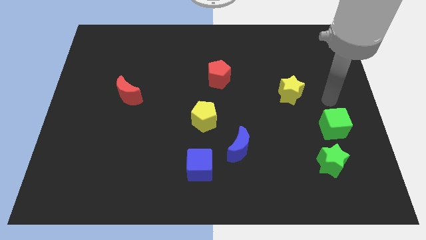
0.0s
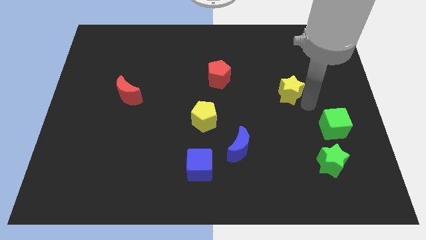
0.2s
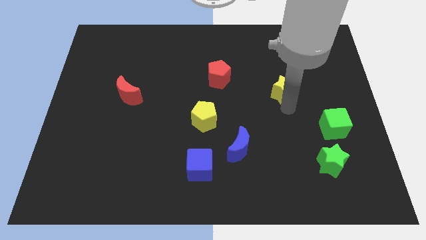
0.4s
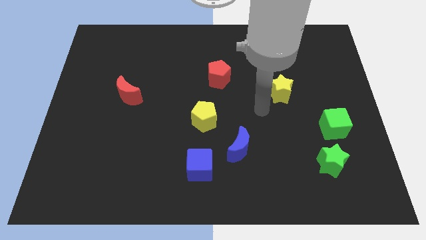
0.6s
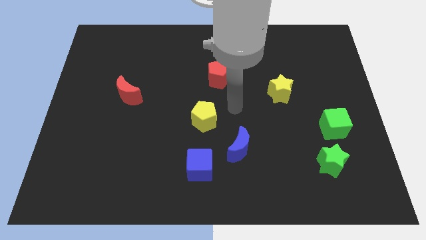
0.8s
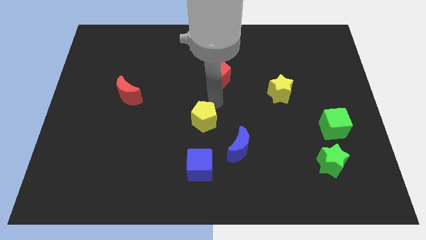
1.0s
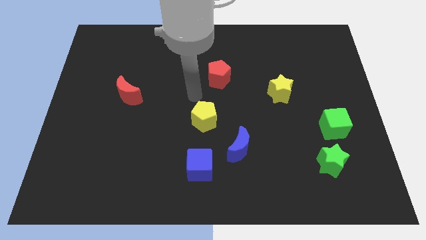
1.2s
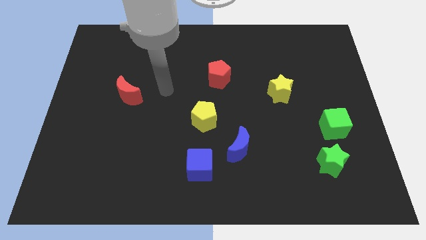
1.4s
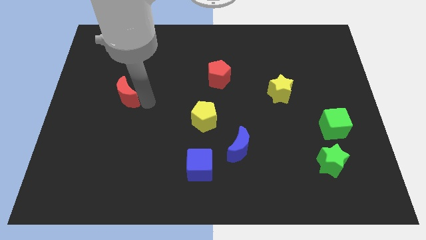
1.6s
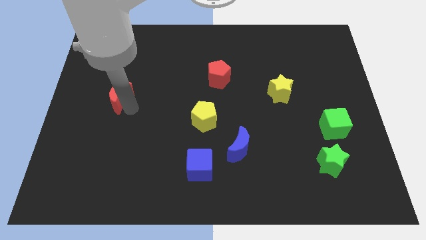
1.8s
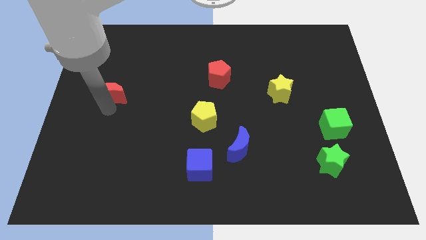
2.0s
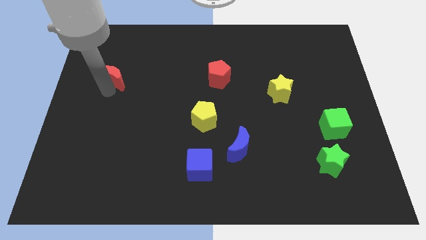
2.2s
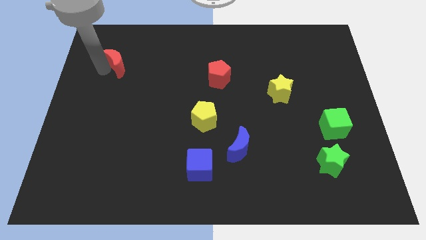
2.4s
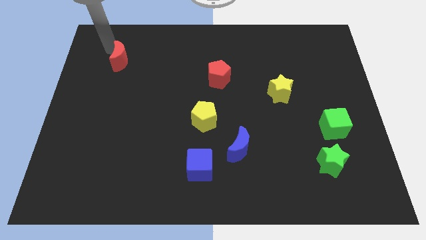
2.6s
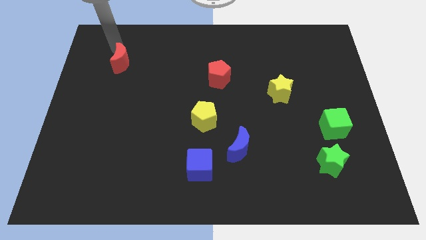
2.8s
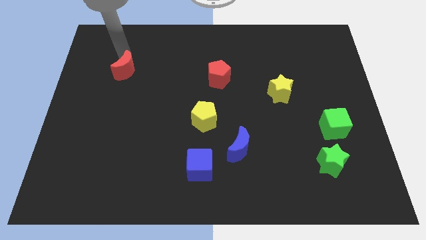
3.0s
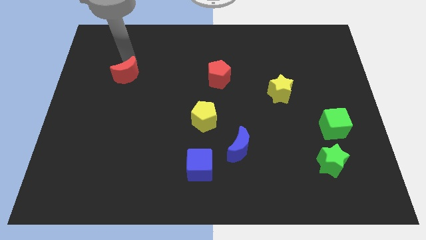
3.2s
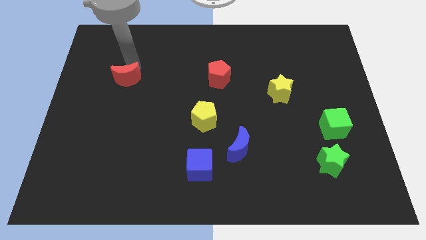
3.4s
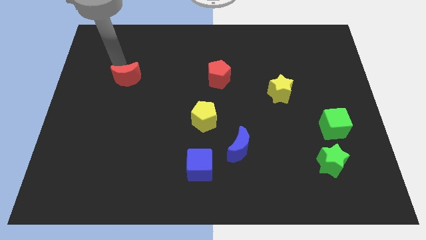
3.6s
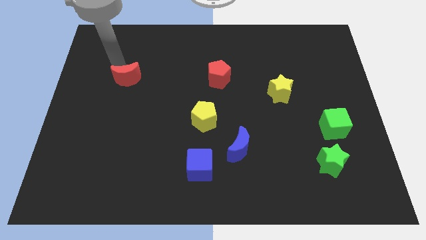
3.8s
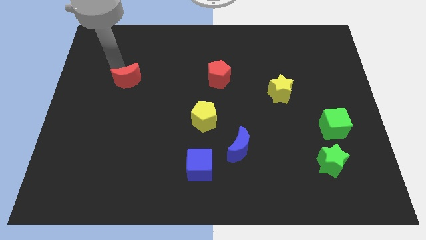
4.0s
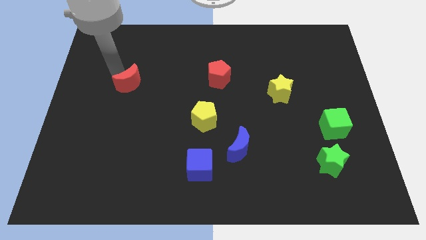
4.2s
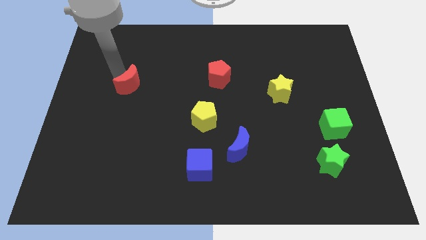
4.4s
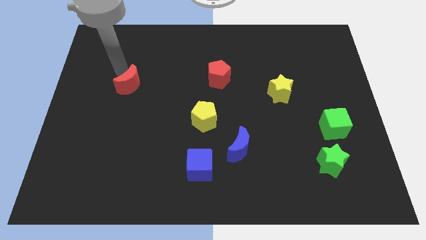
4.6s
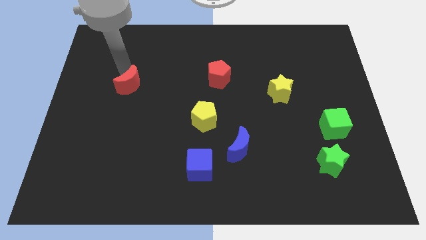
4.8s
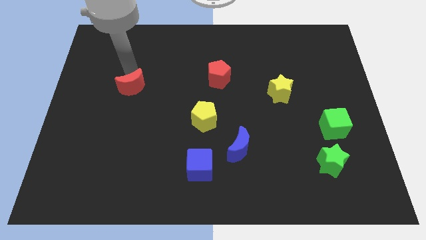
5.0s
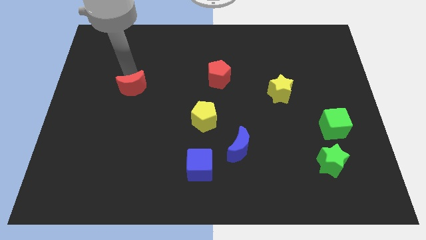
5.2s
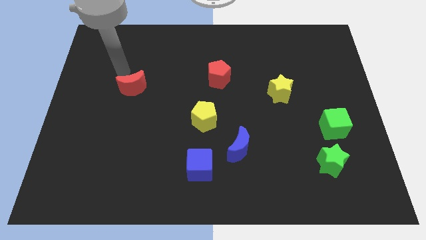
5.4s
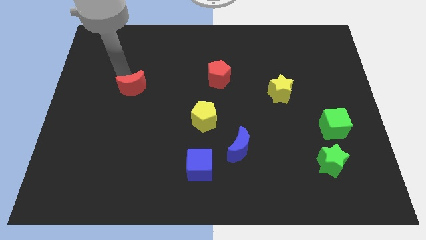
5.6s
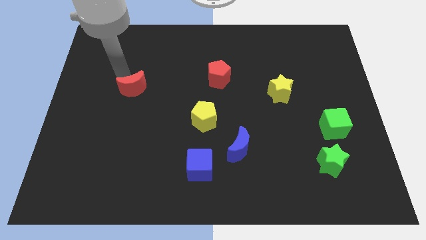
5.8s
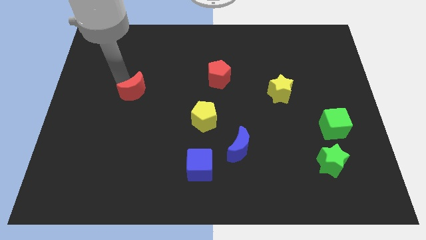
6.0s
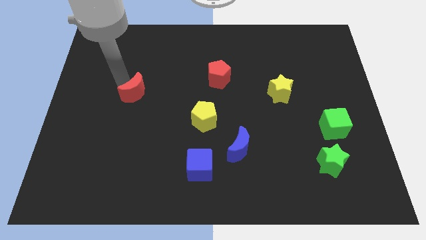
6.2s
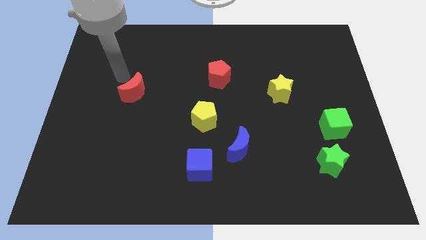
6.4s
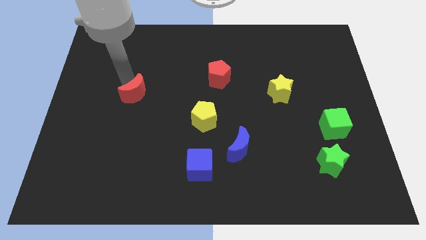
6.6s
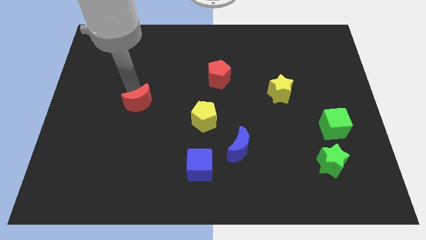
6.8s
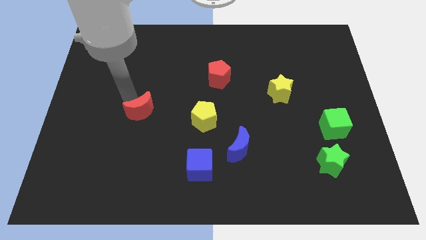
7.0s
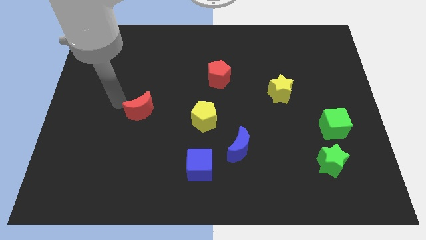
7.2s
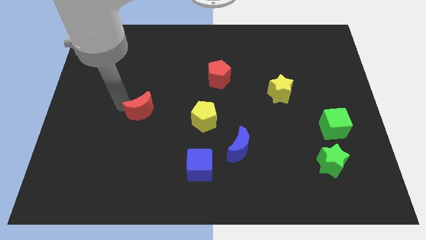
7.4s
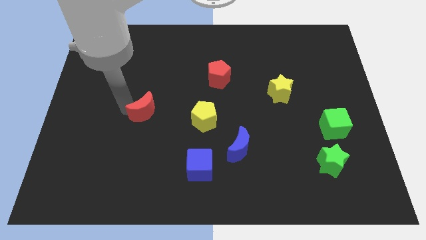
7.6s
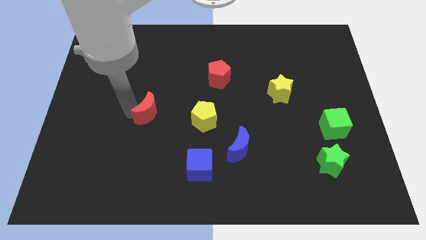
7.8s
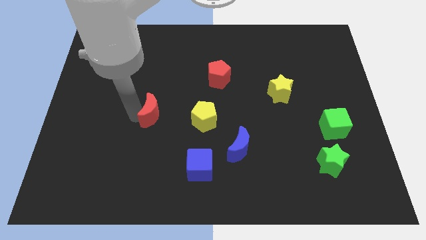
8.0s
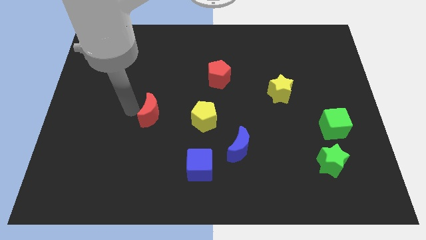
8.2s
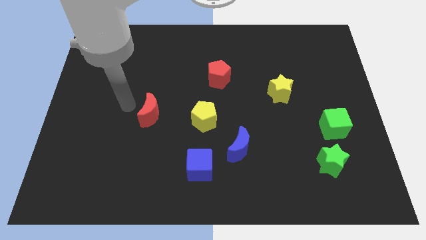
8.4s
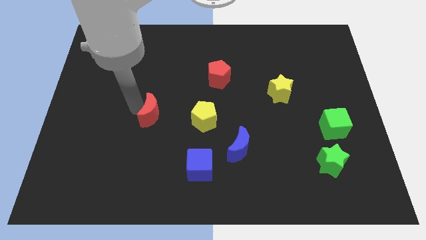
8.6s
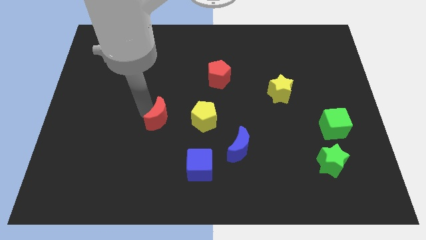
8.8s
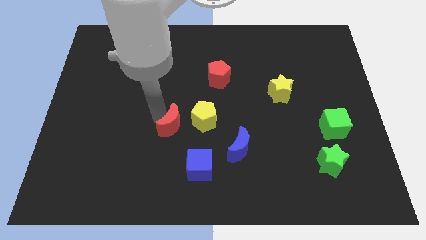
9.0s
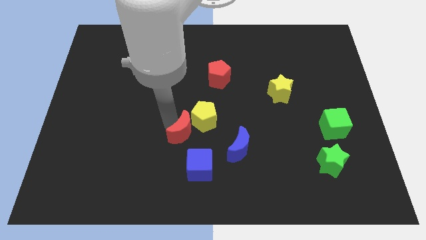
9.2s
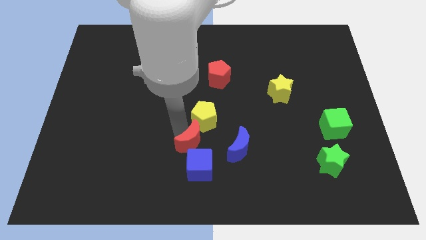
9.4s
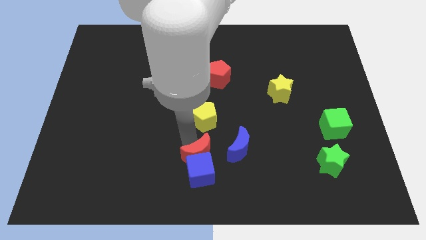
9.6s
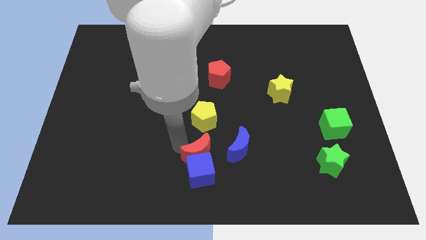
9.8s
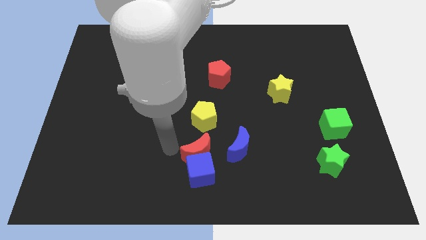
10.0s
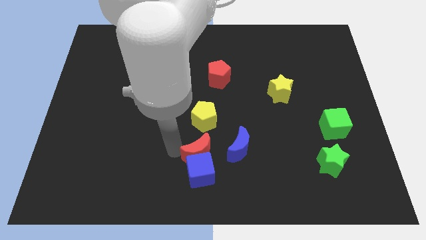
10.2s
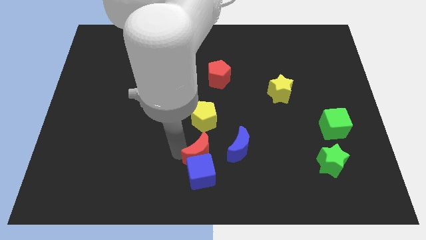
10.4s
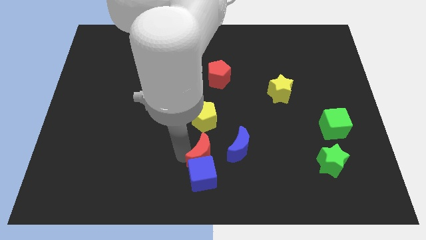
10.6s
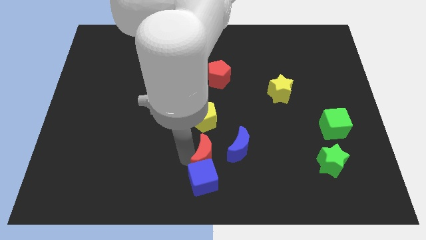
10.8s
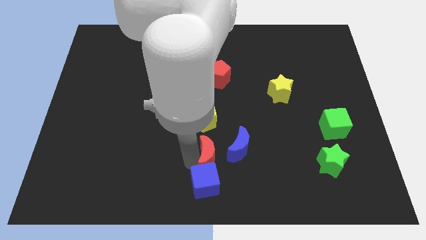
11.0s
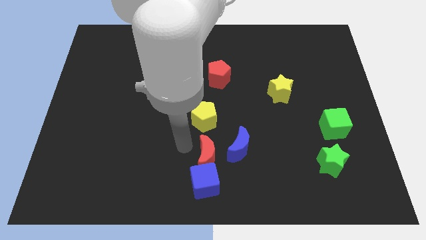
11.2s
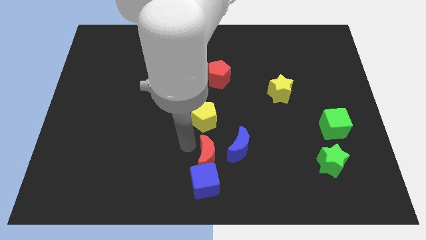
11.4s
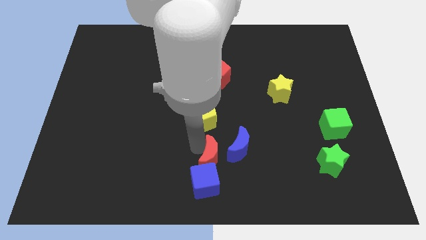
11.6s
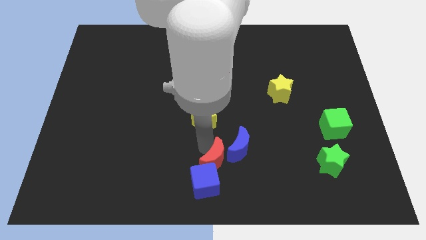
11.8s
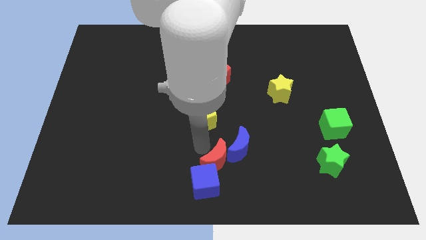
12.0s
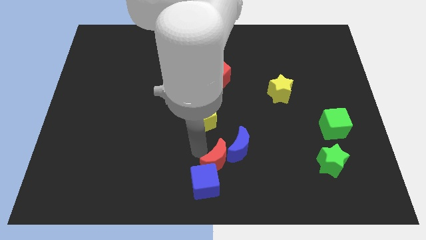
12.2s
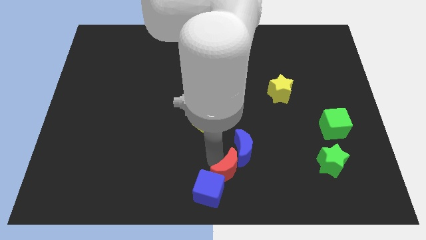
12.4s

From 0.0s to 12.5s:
move the red moon right of the blue cube
